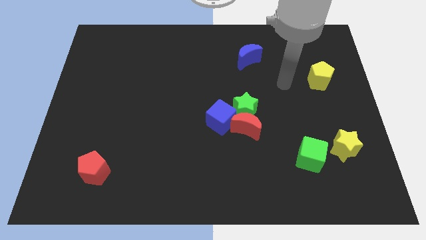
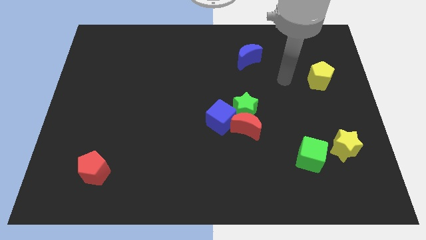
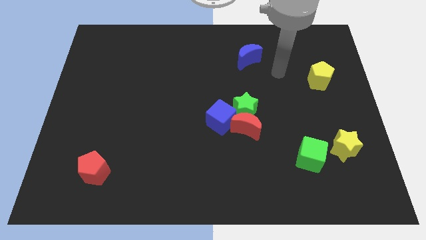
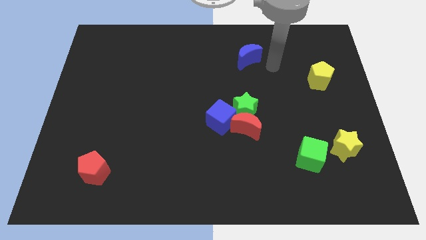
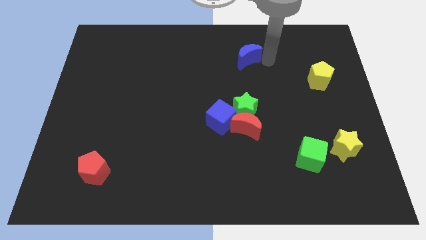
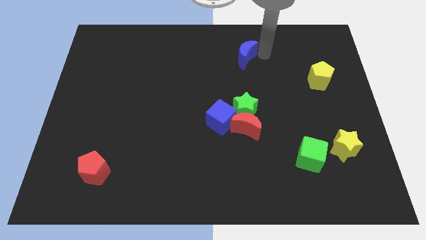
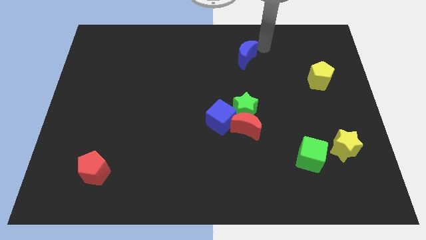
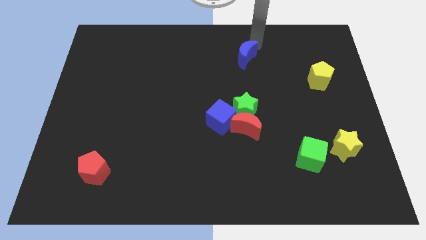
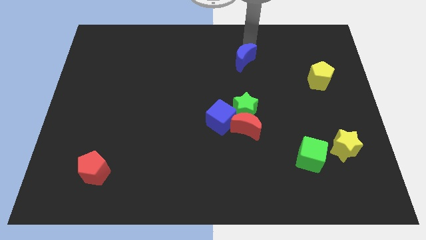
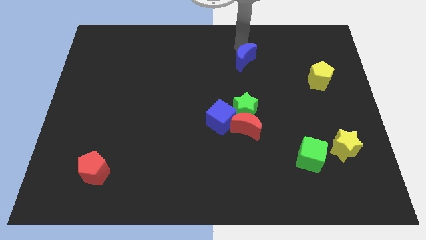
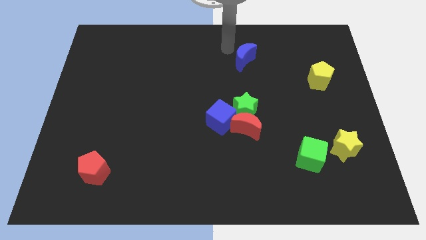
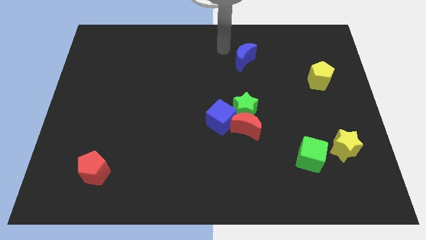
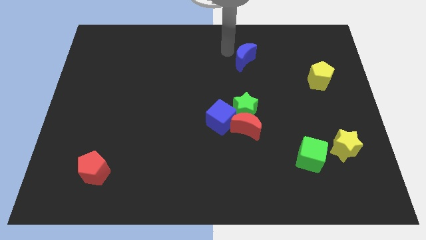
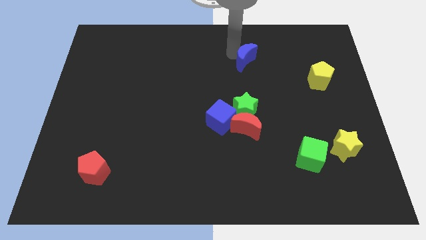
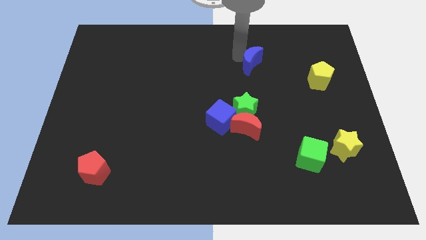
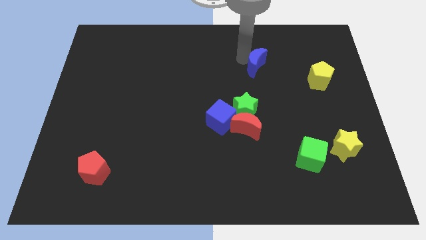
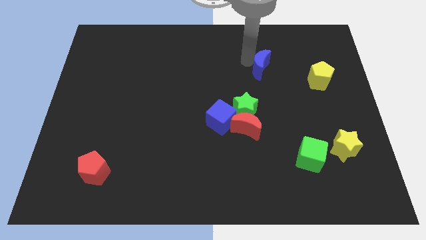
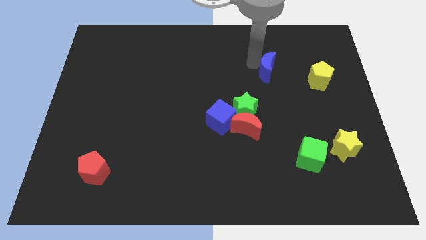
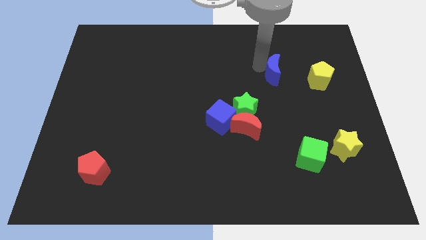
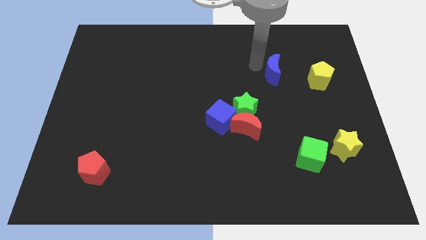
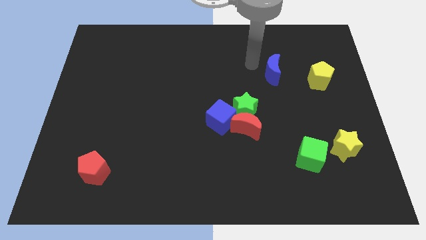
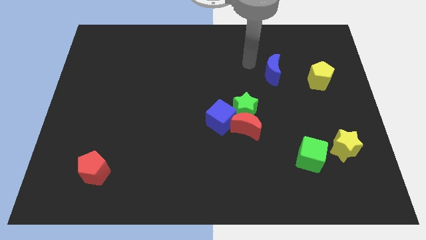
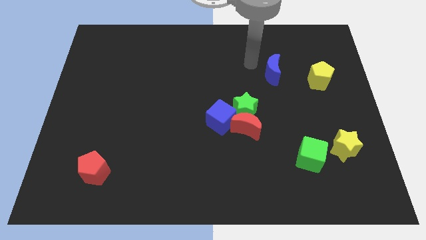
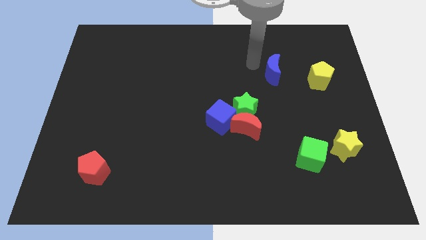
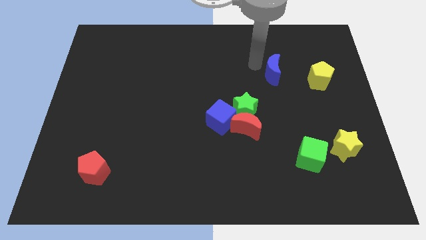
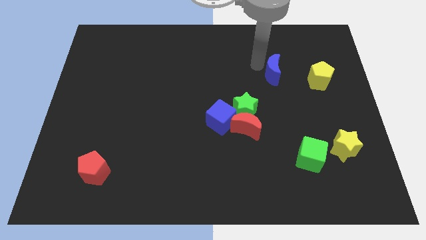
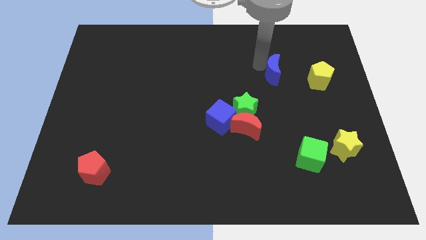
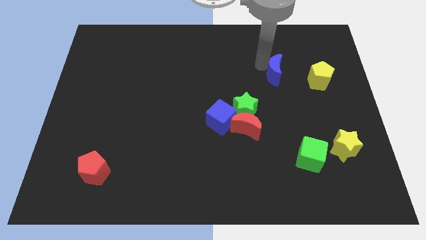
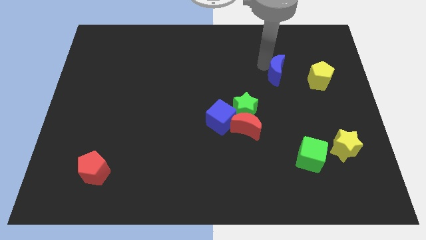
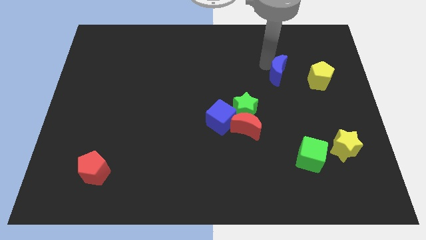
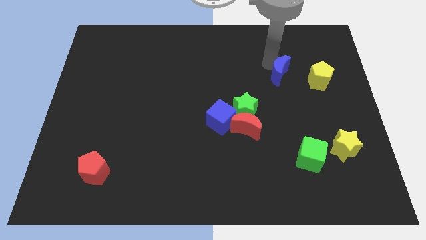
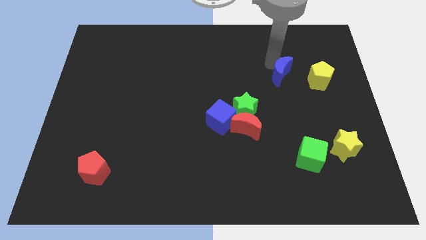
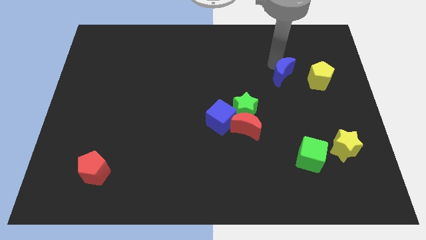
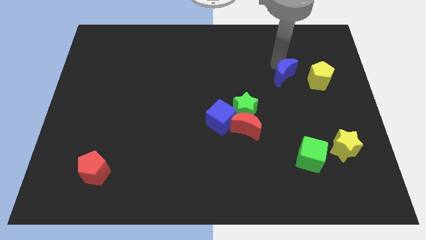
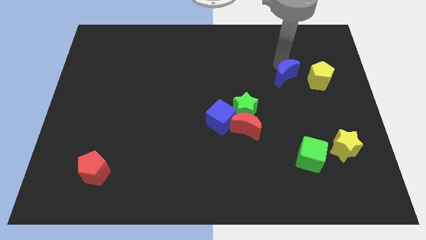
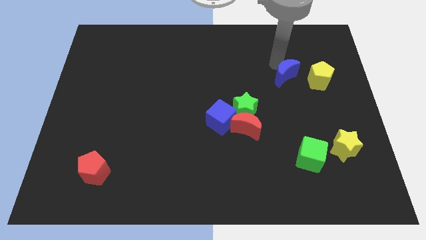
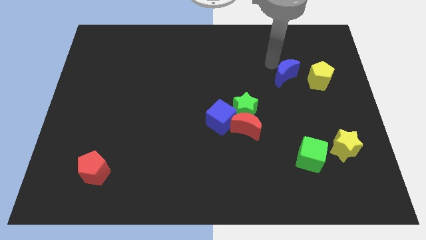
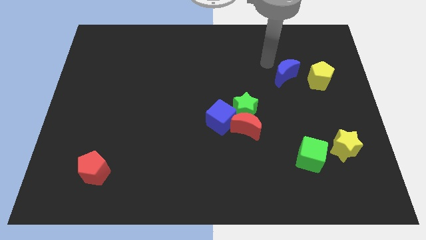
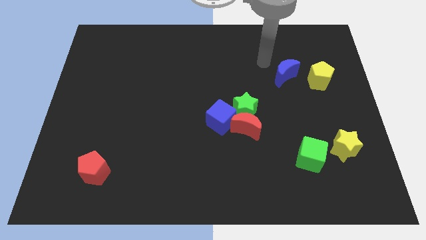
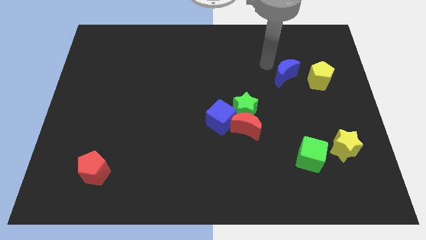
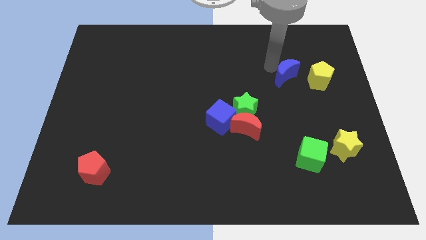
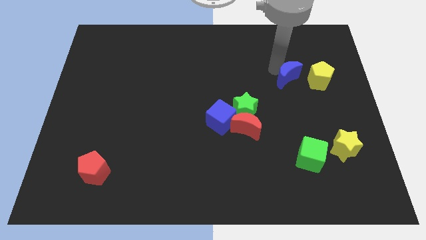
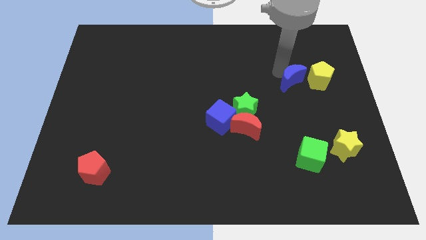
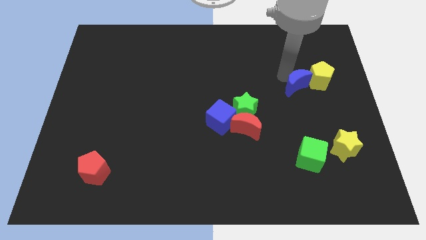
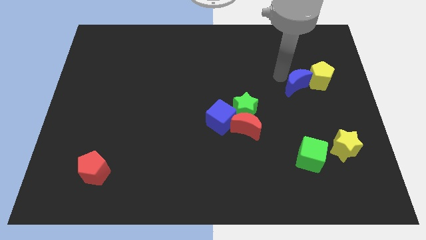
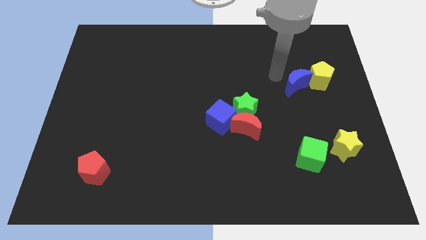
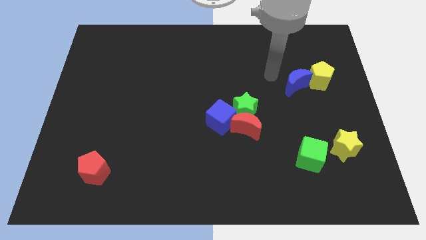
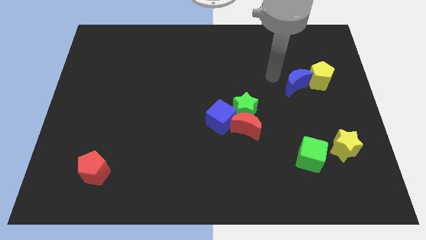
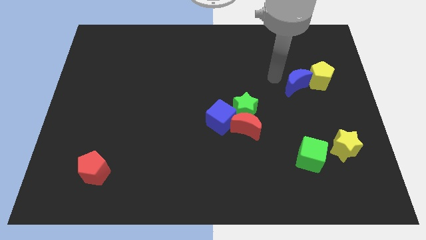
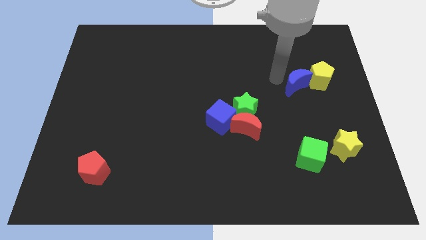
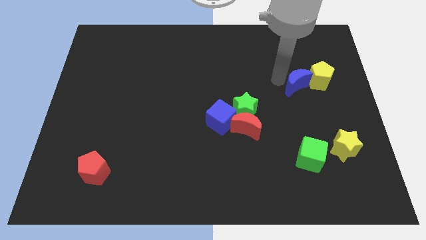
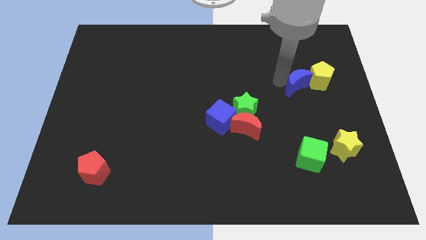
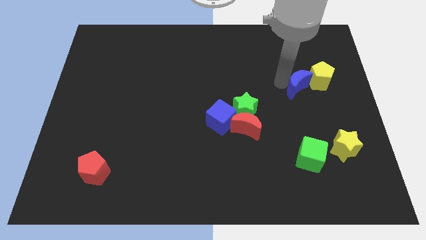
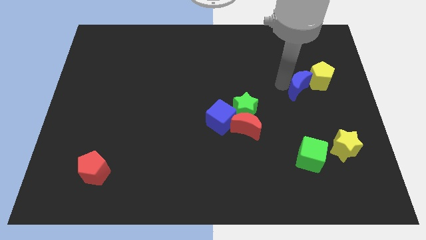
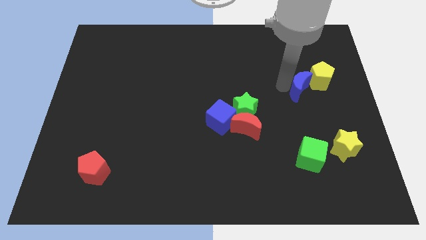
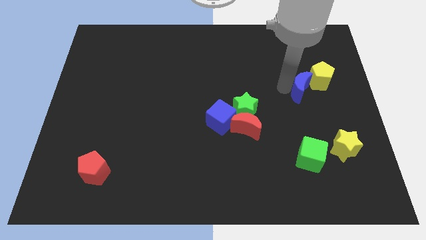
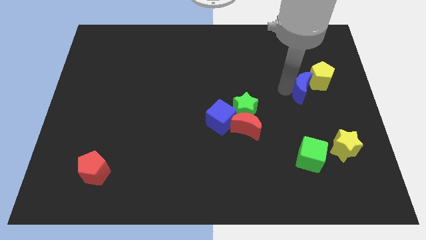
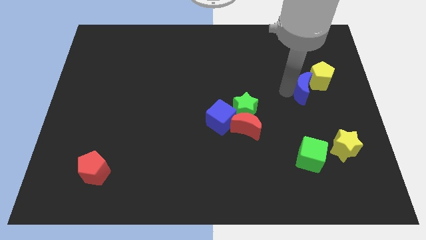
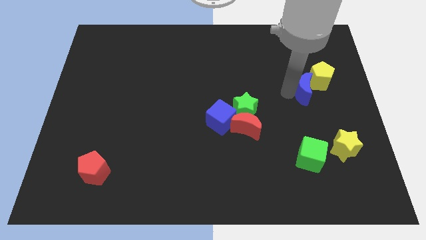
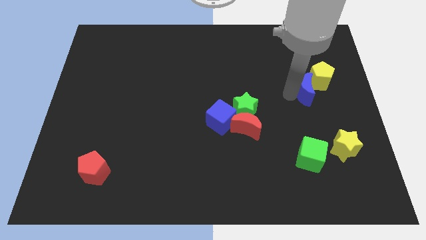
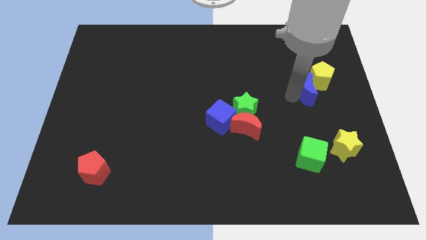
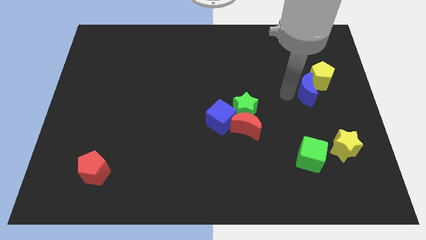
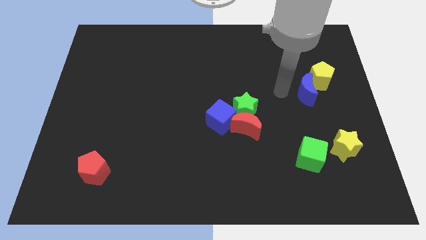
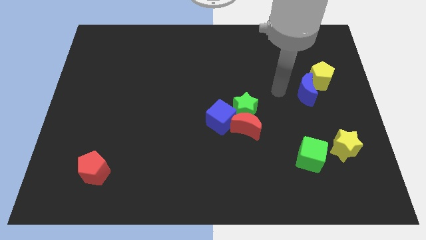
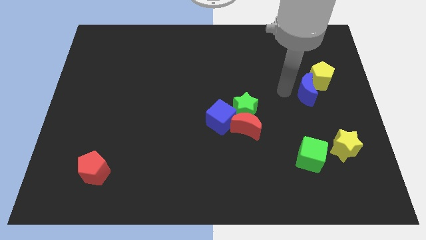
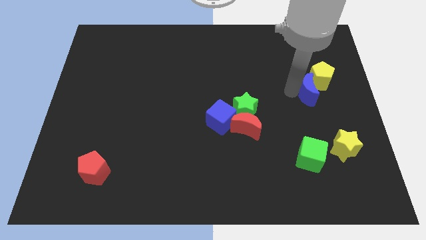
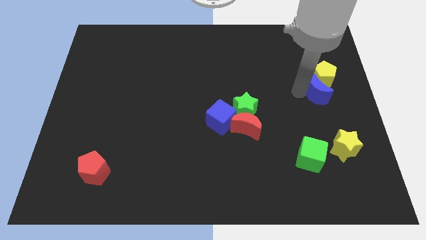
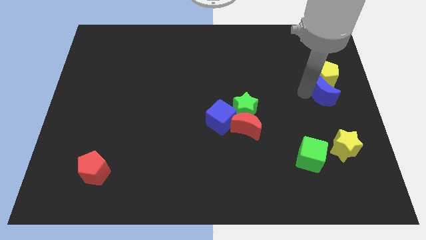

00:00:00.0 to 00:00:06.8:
put the blue moon to the right side
